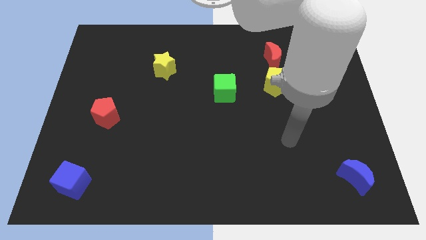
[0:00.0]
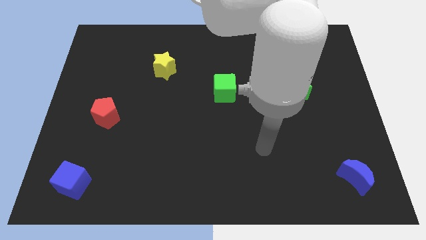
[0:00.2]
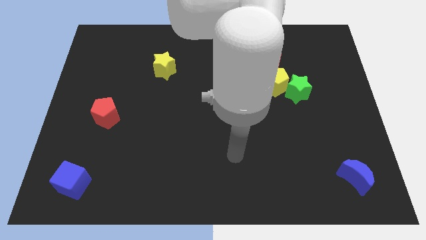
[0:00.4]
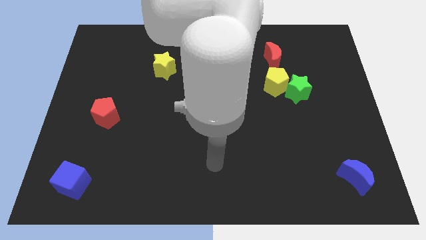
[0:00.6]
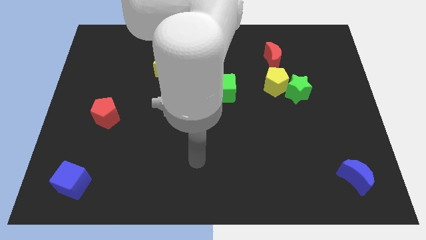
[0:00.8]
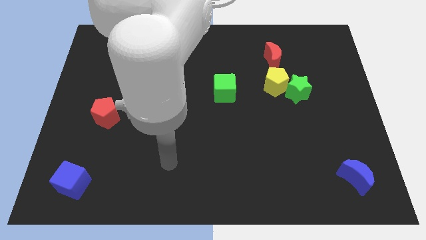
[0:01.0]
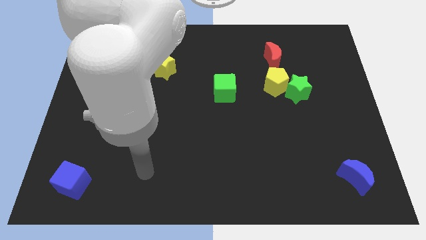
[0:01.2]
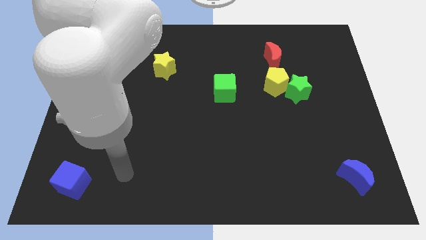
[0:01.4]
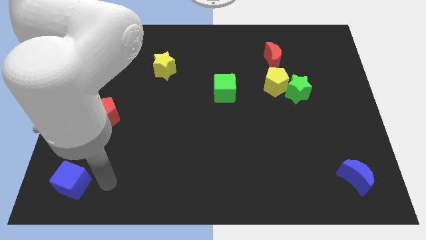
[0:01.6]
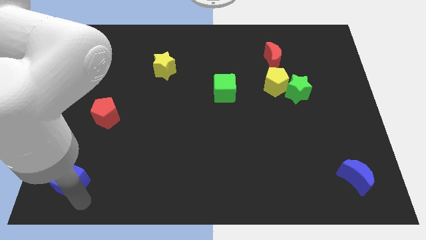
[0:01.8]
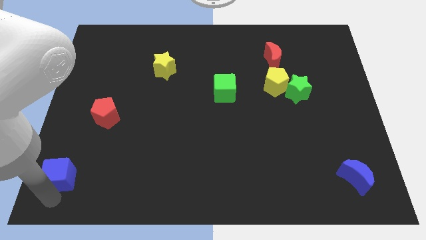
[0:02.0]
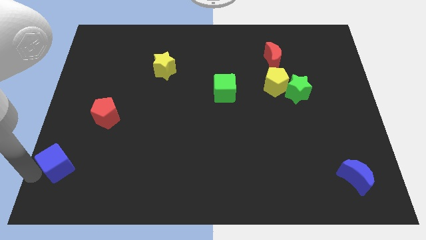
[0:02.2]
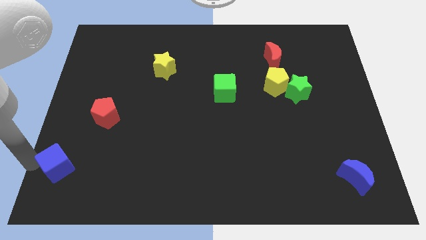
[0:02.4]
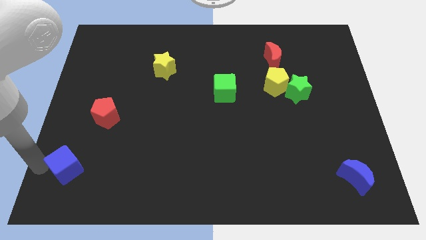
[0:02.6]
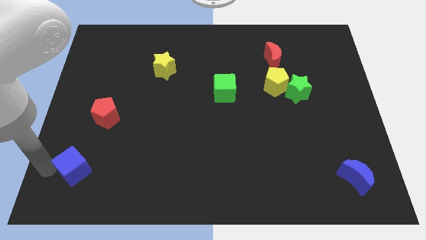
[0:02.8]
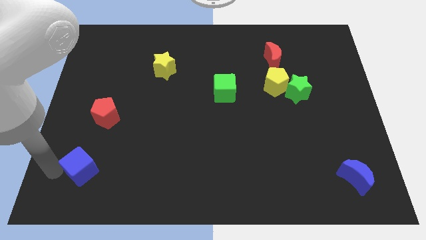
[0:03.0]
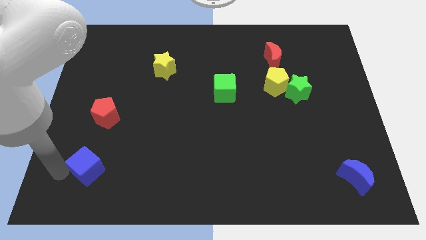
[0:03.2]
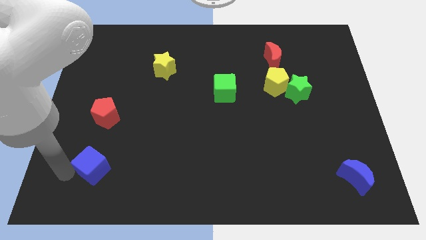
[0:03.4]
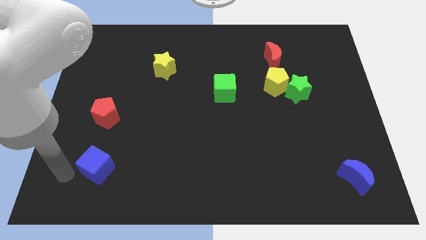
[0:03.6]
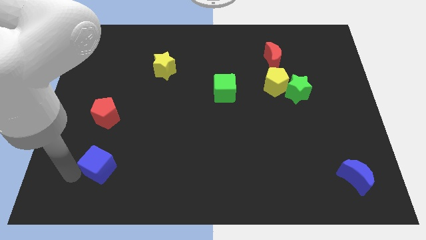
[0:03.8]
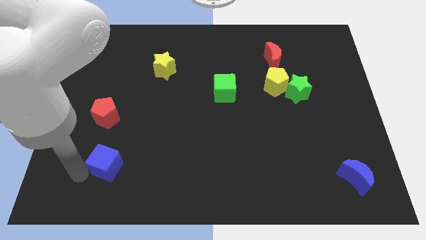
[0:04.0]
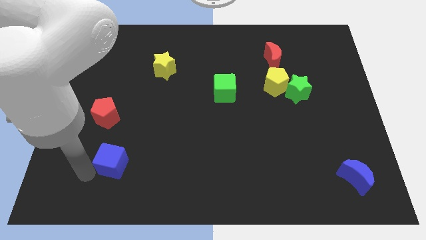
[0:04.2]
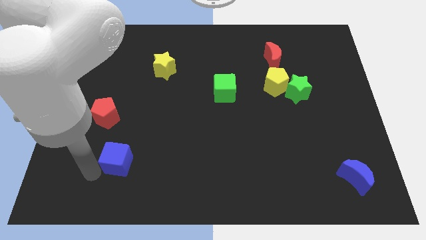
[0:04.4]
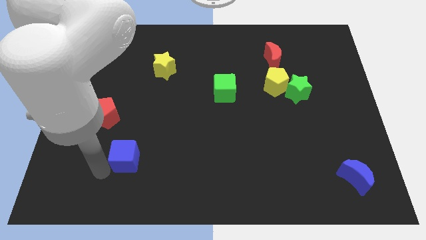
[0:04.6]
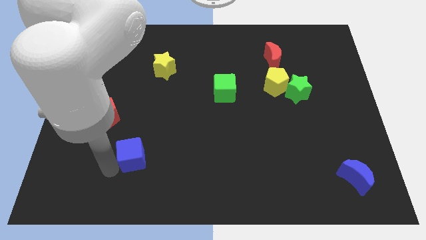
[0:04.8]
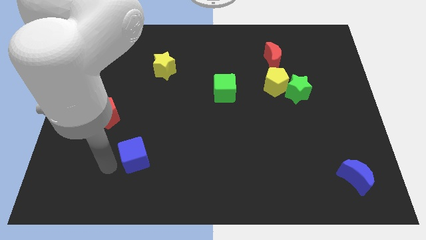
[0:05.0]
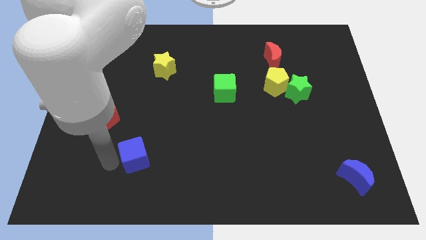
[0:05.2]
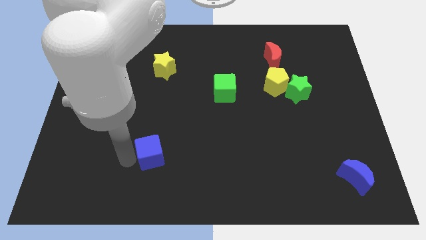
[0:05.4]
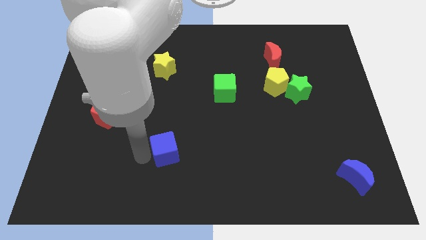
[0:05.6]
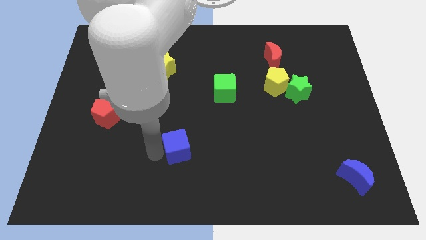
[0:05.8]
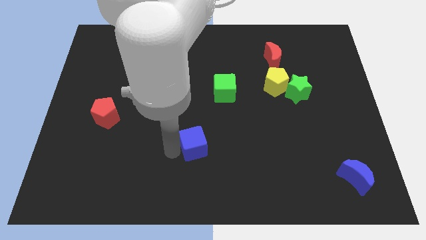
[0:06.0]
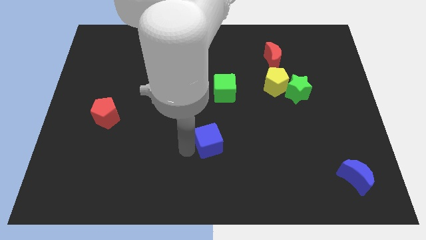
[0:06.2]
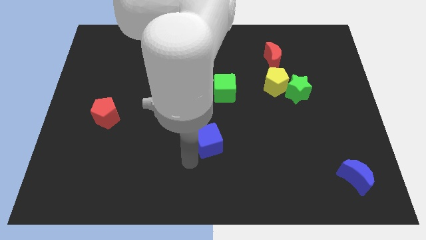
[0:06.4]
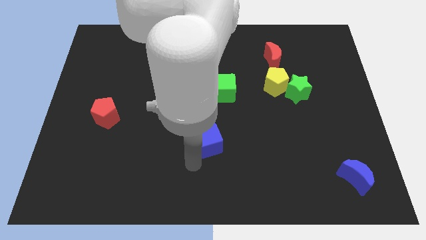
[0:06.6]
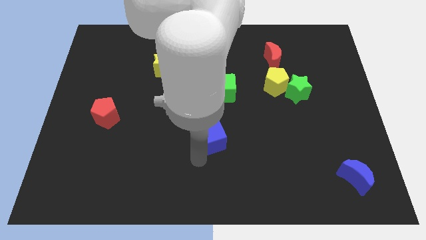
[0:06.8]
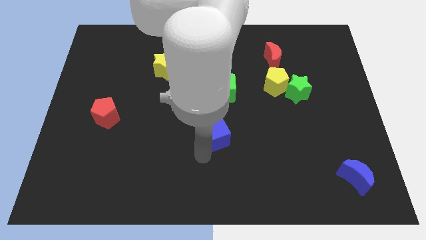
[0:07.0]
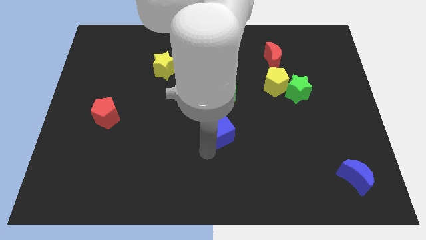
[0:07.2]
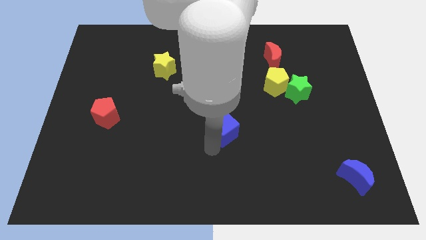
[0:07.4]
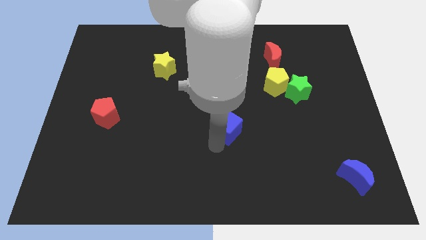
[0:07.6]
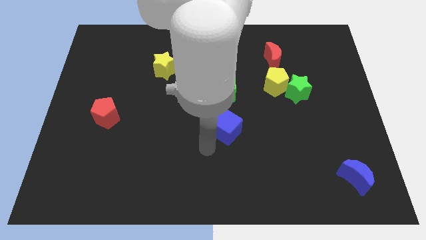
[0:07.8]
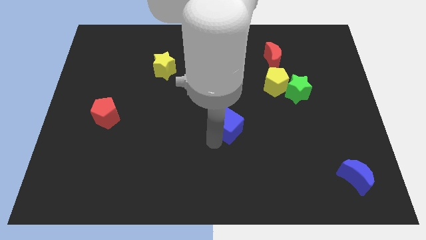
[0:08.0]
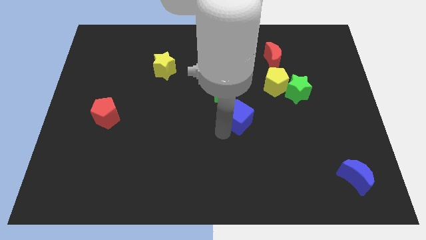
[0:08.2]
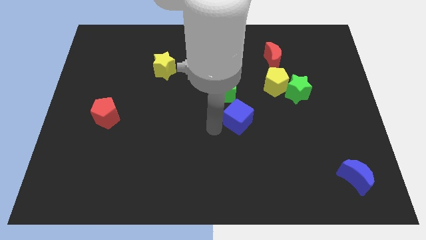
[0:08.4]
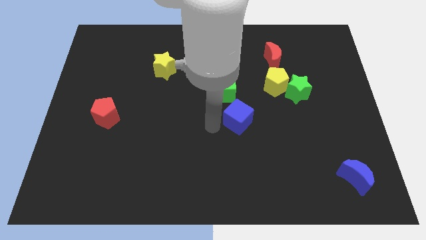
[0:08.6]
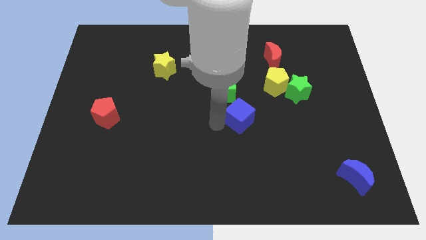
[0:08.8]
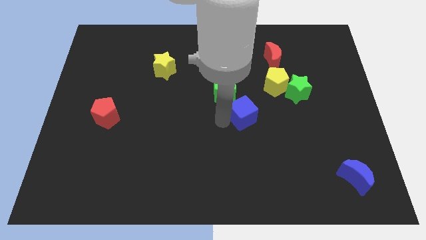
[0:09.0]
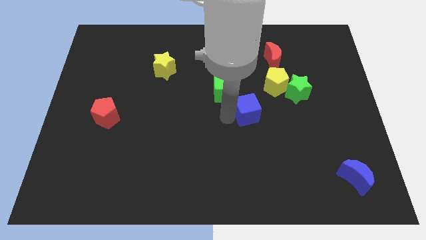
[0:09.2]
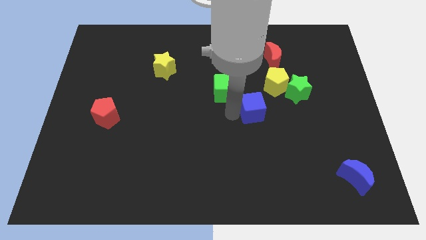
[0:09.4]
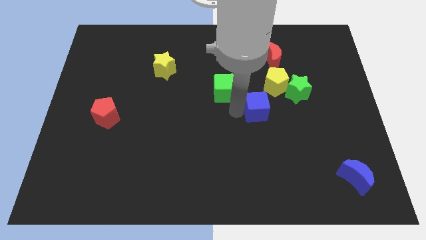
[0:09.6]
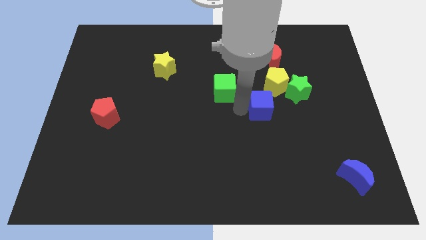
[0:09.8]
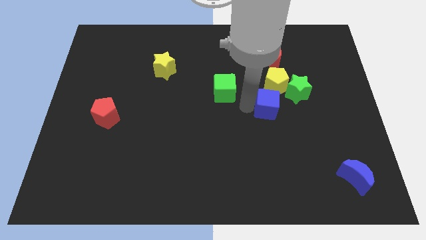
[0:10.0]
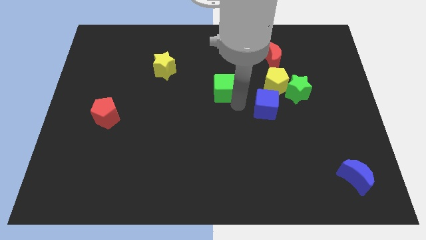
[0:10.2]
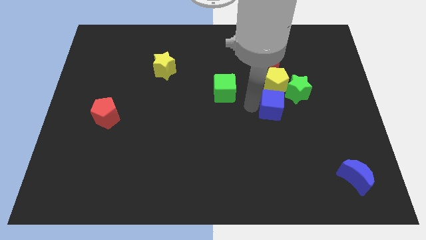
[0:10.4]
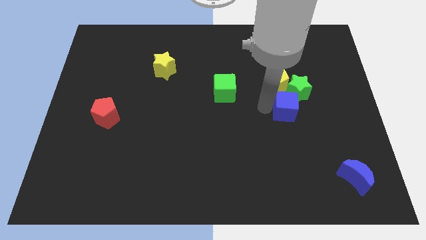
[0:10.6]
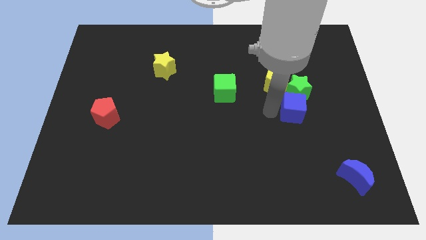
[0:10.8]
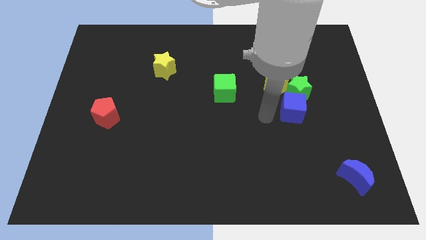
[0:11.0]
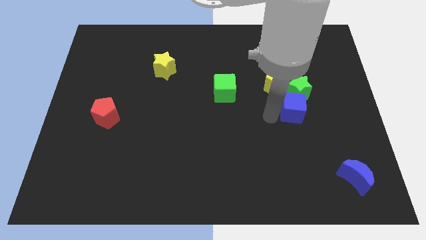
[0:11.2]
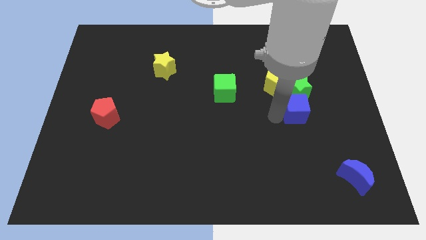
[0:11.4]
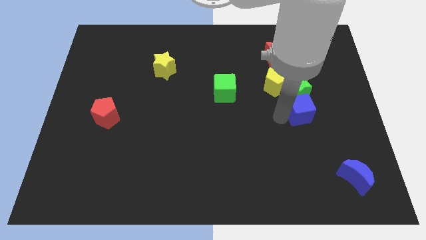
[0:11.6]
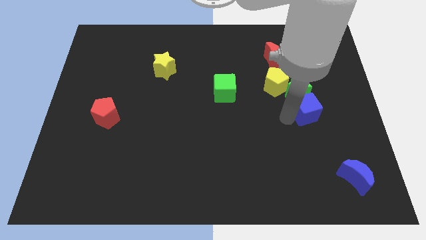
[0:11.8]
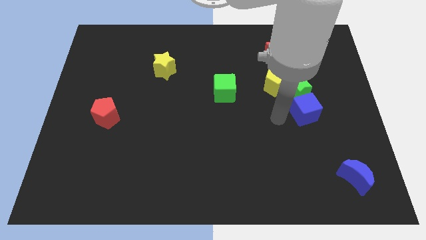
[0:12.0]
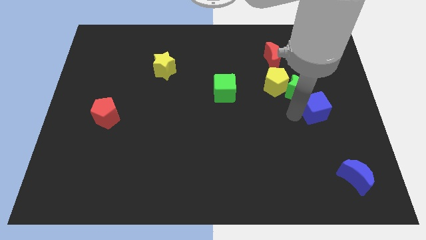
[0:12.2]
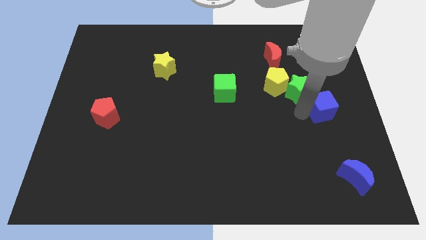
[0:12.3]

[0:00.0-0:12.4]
move the blue cube to the right side of the board
